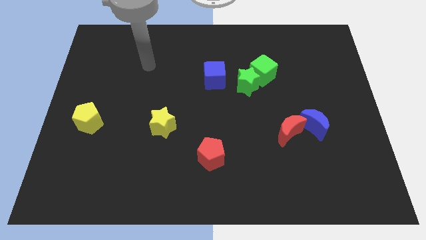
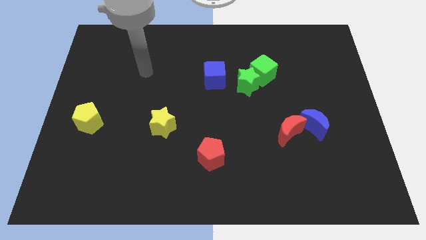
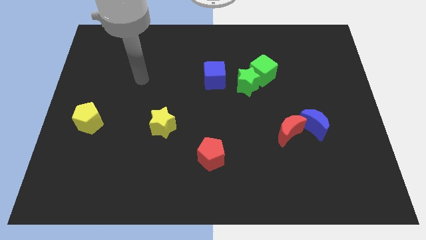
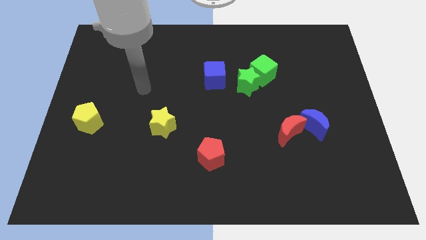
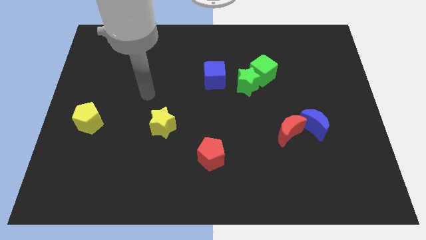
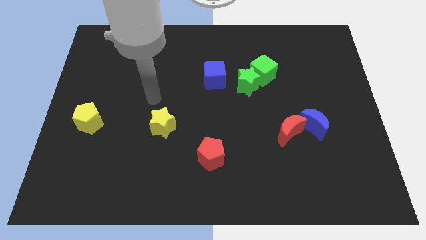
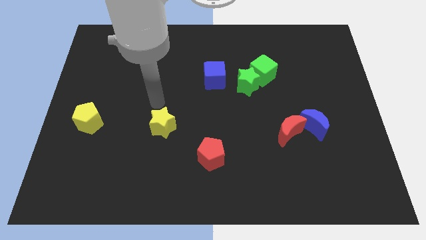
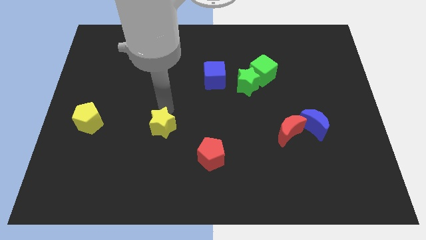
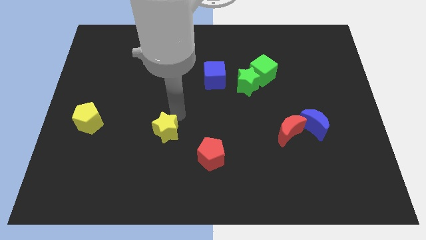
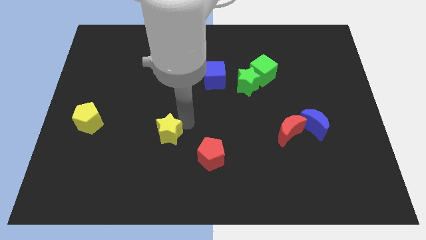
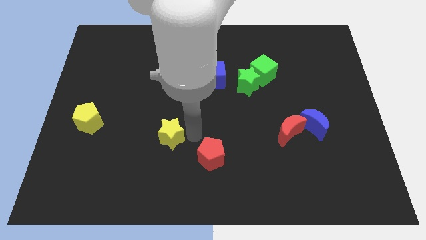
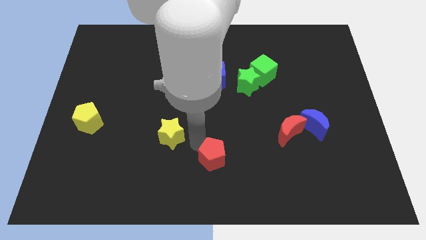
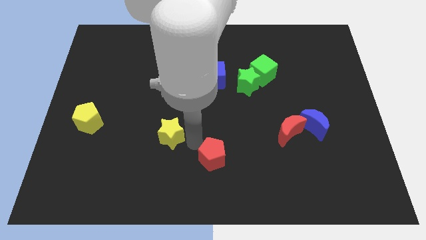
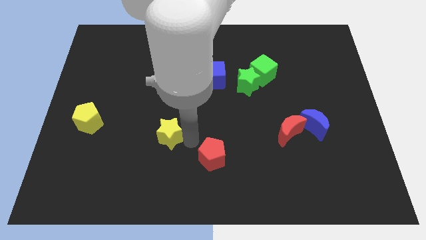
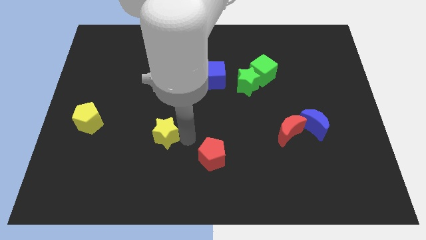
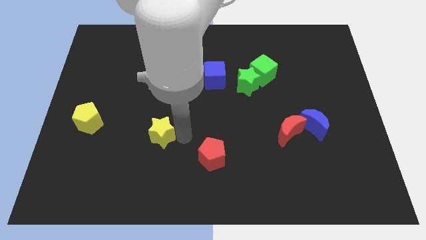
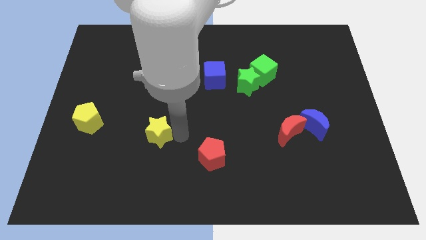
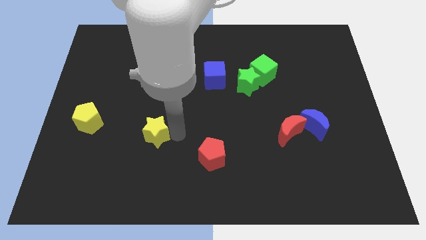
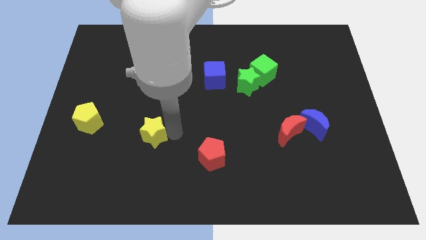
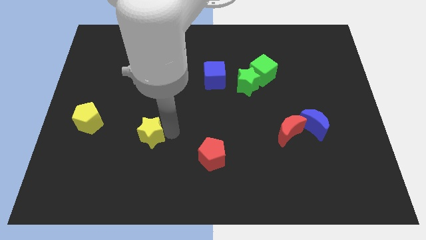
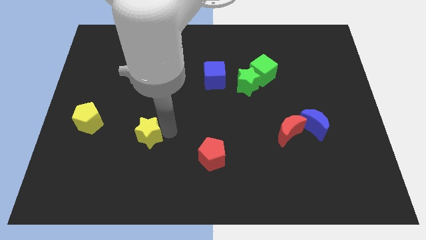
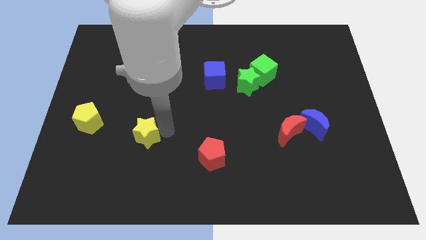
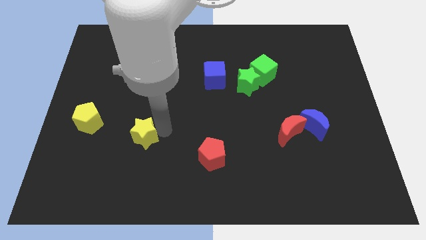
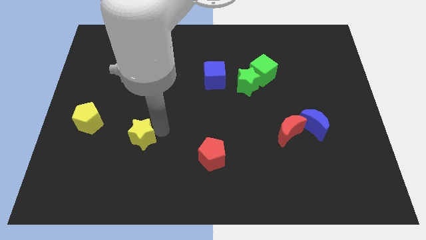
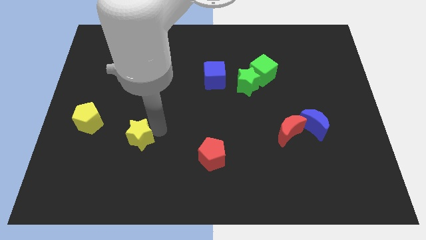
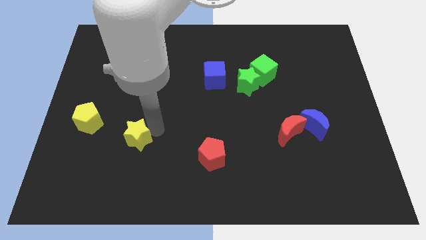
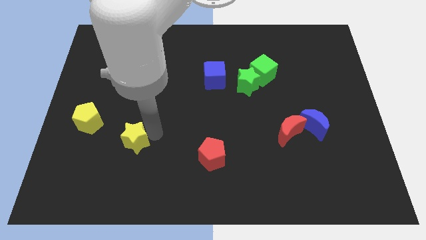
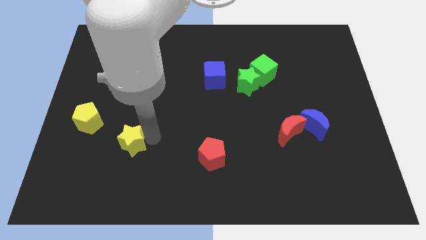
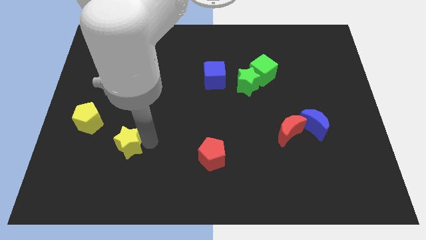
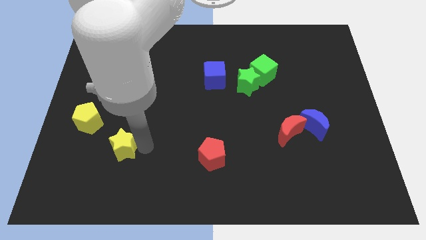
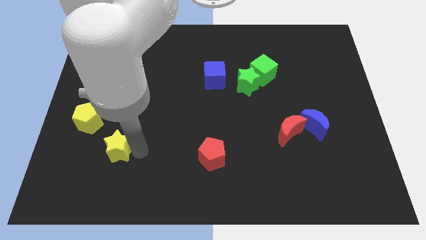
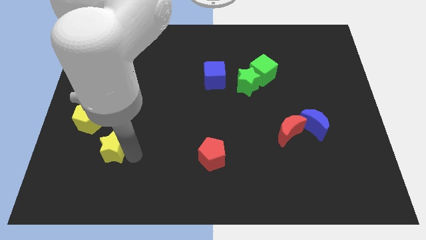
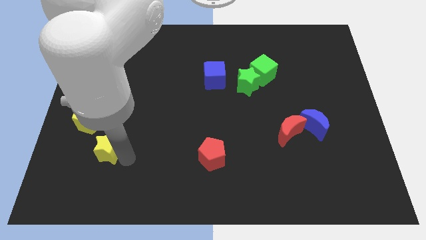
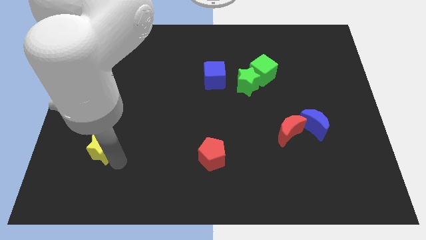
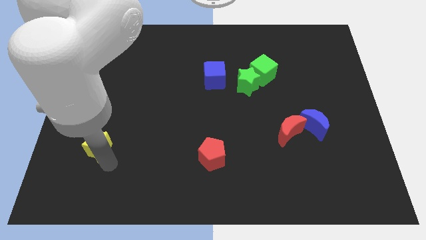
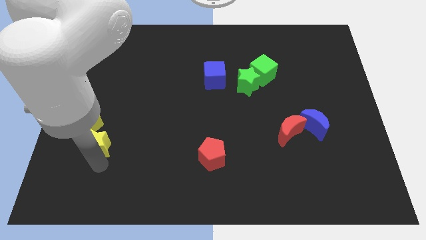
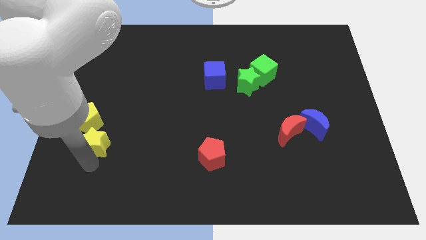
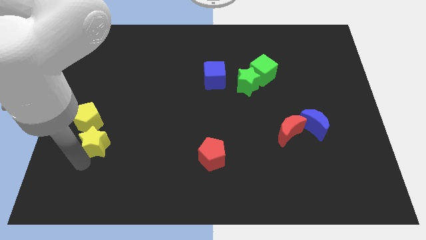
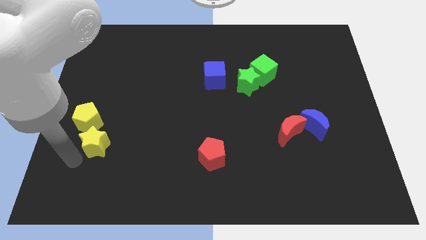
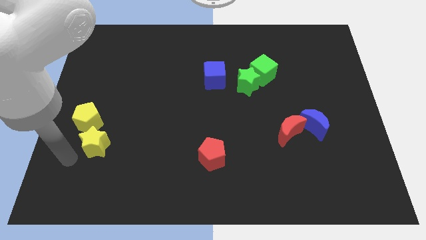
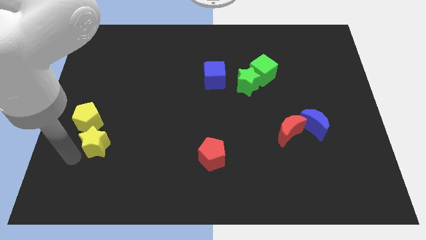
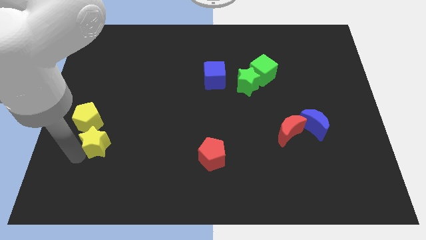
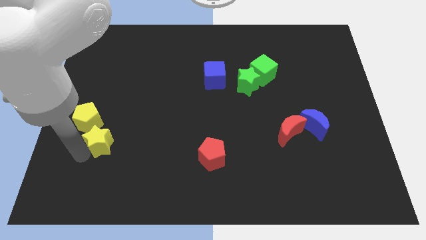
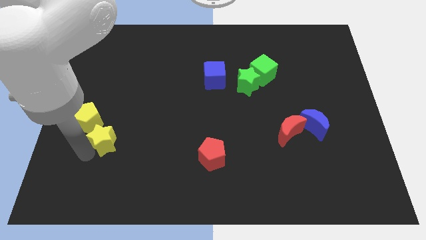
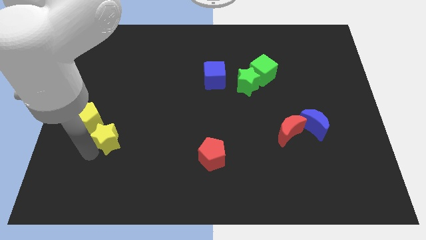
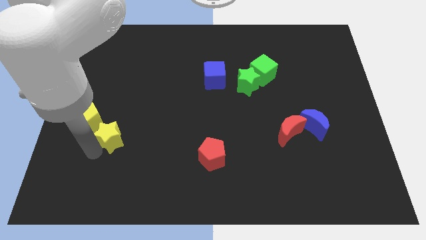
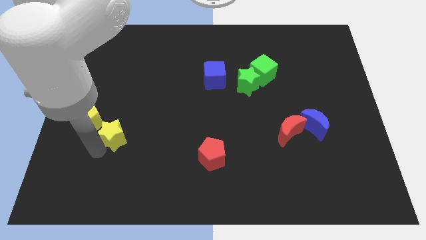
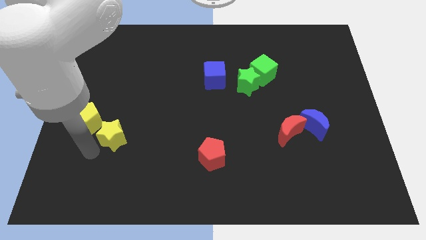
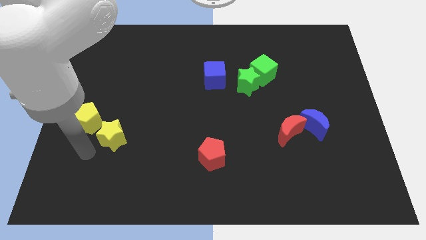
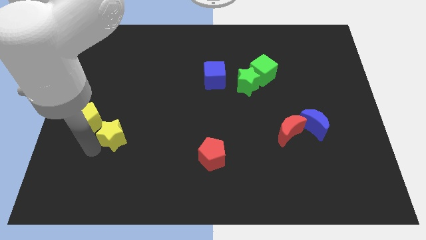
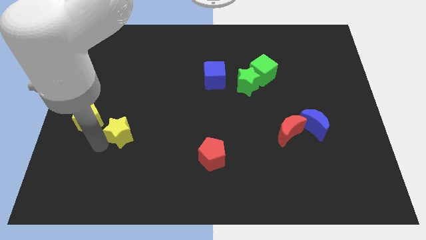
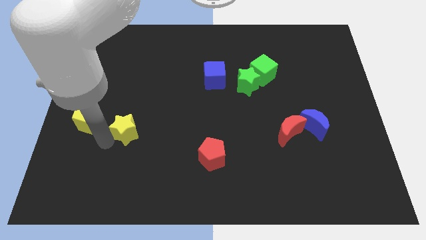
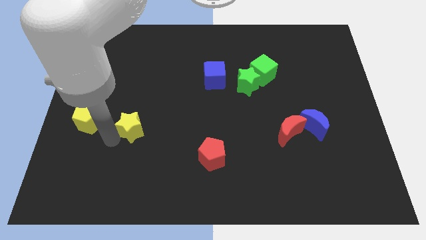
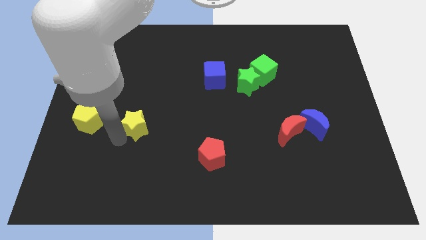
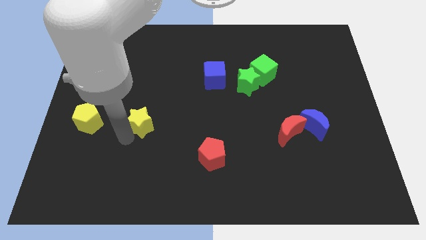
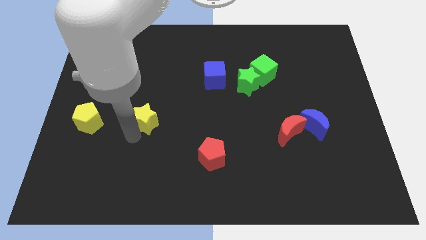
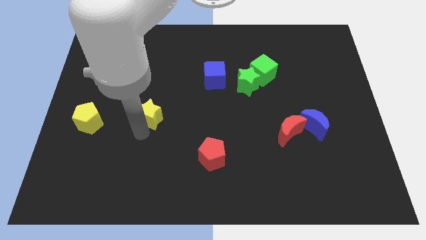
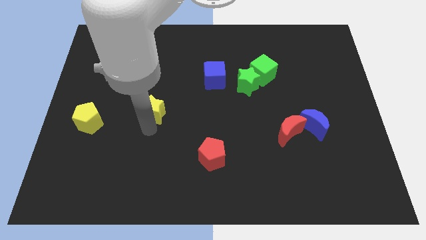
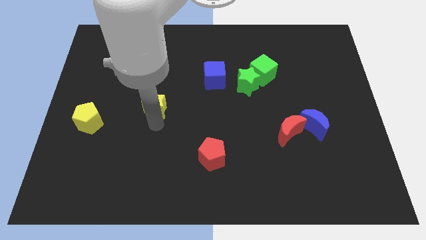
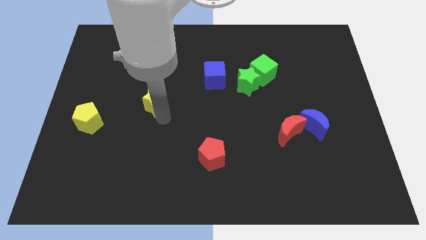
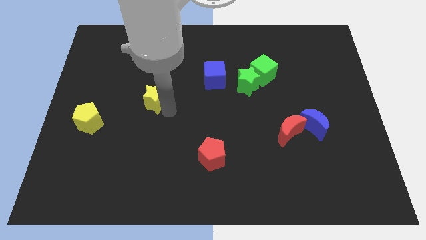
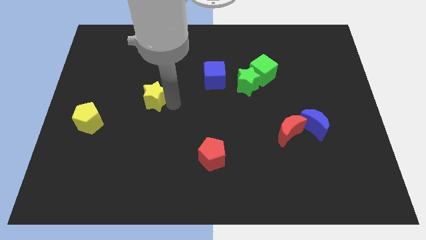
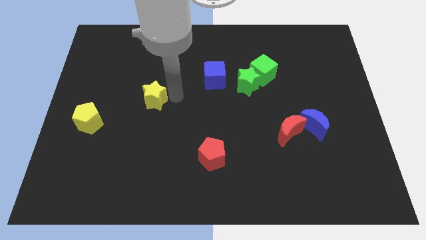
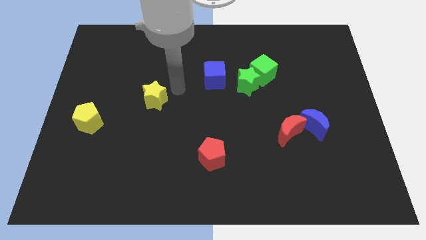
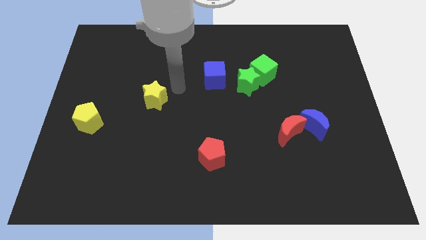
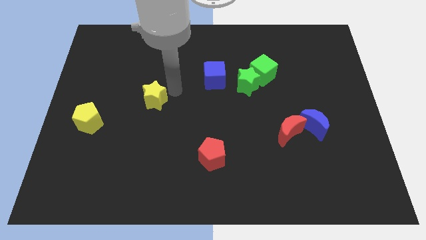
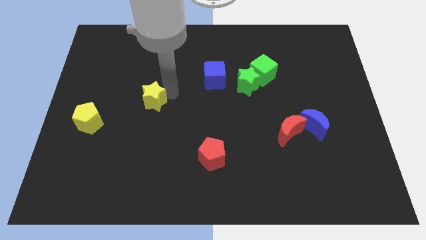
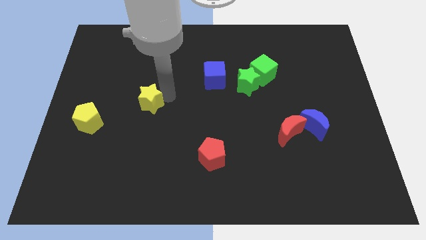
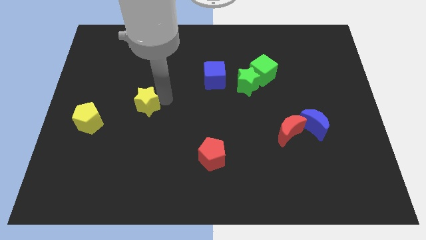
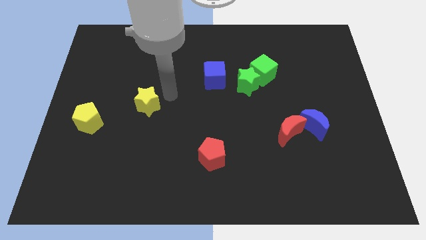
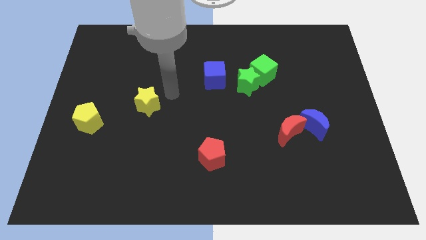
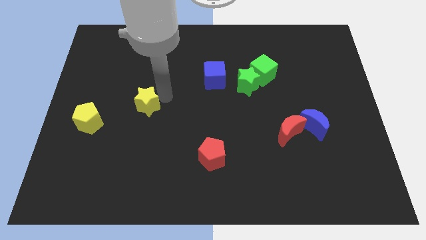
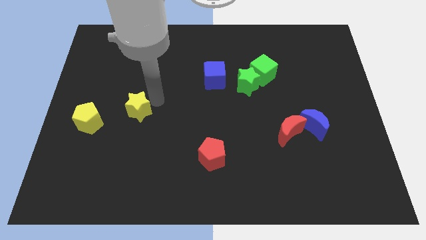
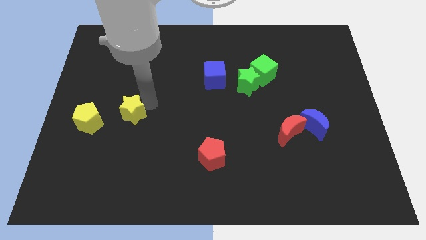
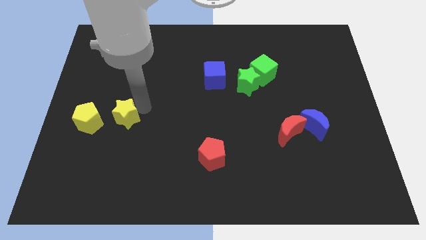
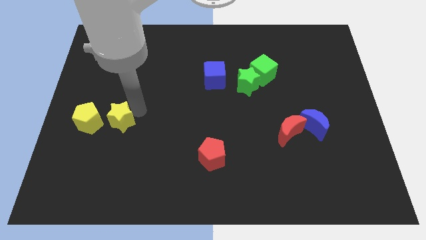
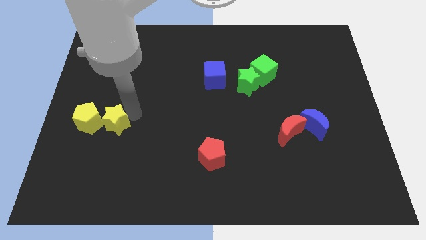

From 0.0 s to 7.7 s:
move the yellow star to the yellow pentagon
